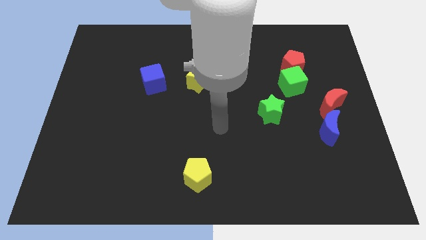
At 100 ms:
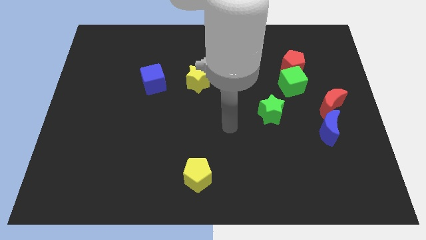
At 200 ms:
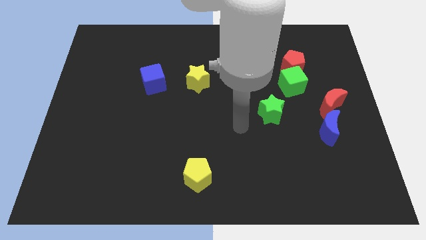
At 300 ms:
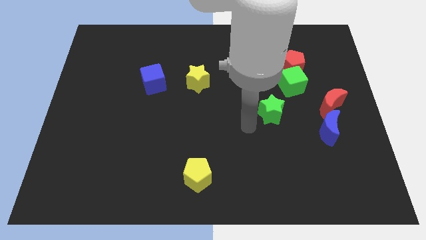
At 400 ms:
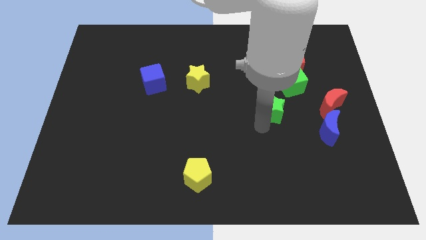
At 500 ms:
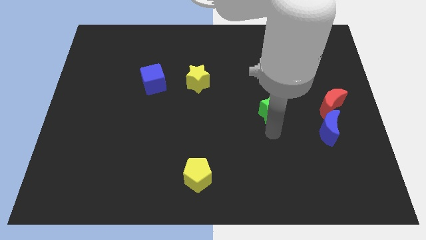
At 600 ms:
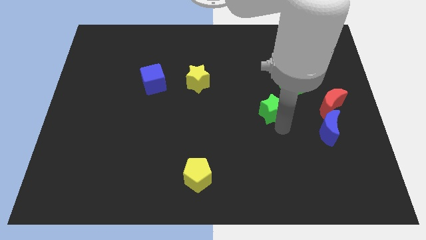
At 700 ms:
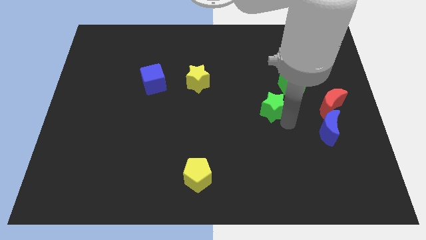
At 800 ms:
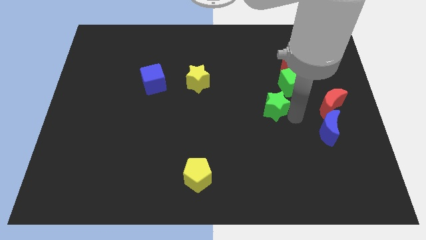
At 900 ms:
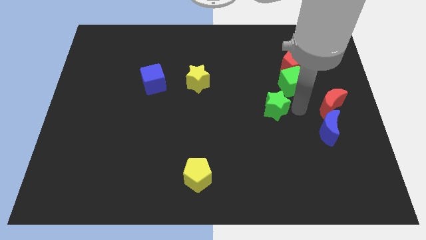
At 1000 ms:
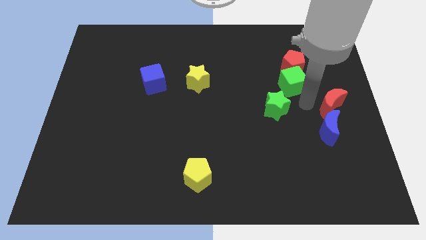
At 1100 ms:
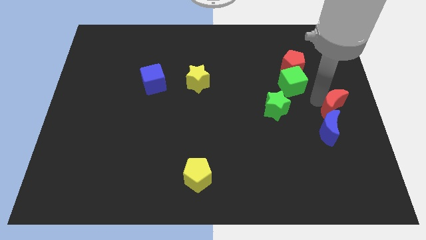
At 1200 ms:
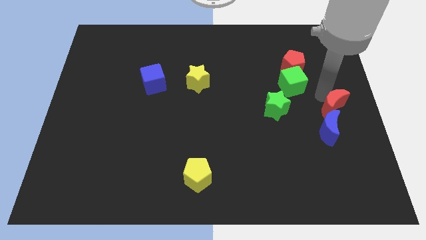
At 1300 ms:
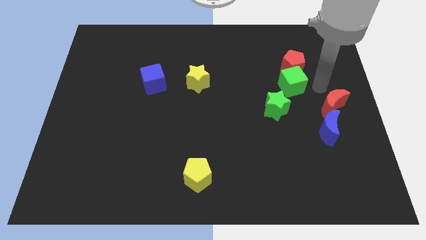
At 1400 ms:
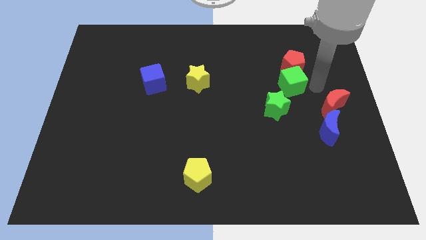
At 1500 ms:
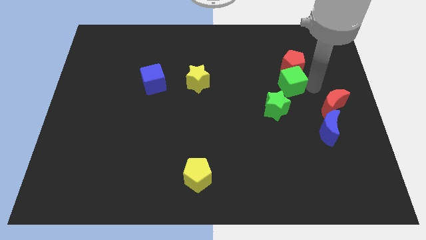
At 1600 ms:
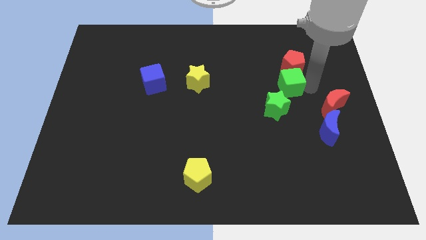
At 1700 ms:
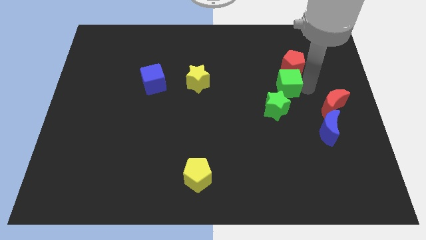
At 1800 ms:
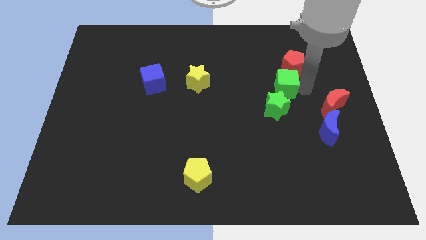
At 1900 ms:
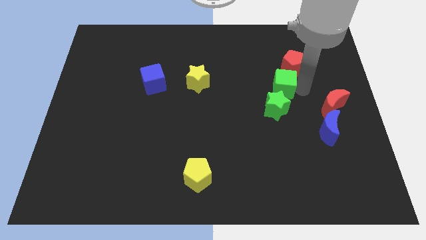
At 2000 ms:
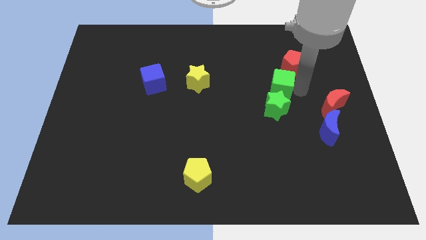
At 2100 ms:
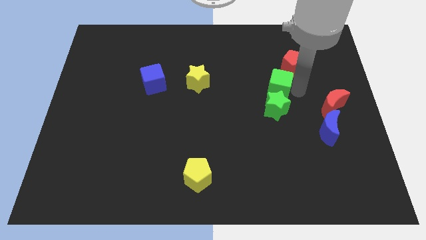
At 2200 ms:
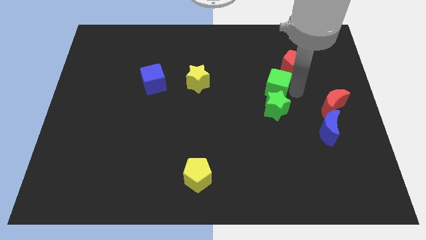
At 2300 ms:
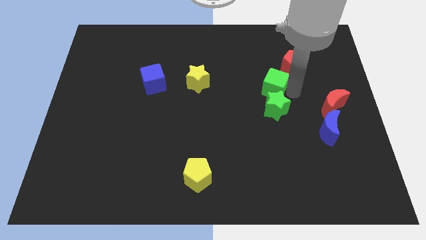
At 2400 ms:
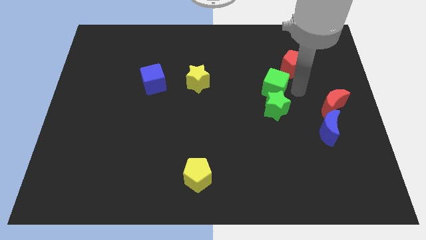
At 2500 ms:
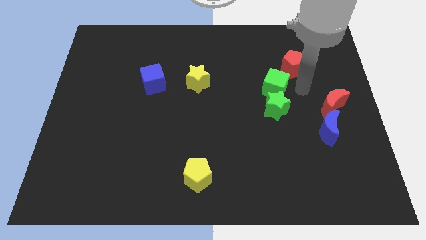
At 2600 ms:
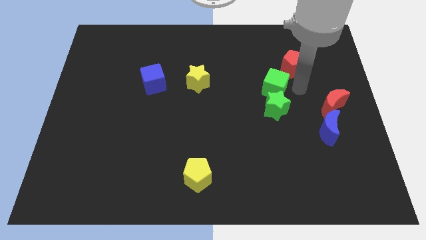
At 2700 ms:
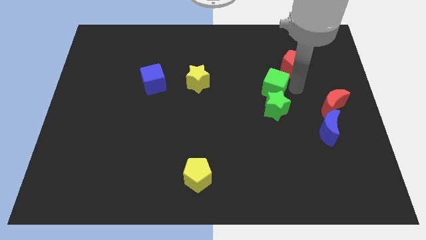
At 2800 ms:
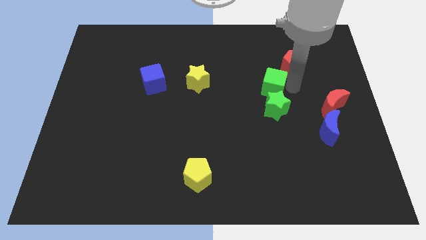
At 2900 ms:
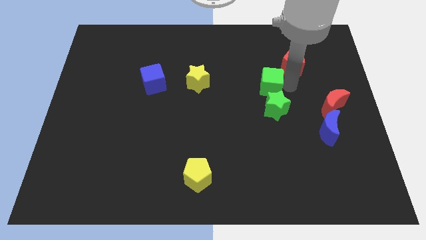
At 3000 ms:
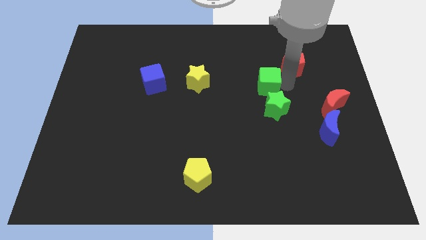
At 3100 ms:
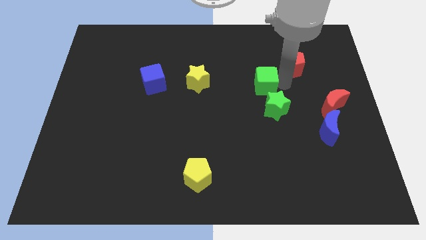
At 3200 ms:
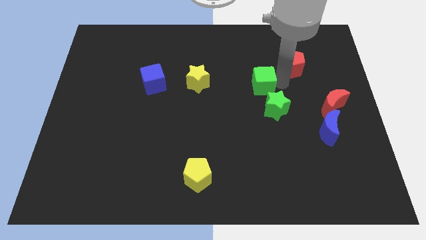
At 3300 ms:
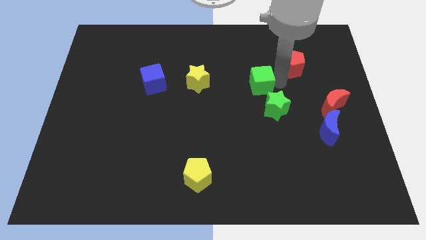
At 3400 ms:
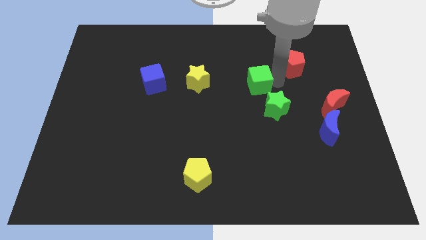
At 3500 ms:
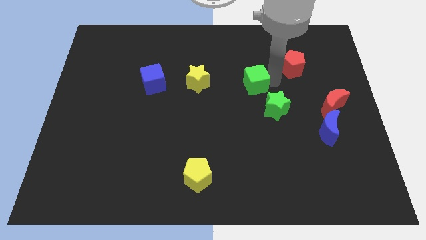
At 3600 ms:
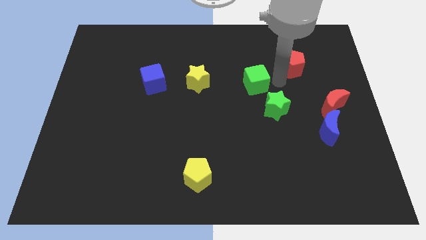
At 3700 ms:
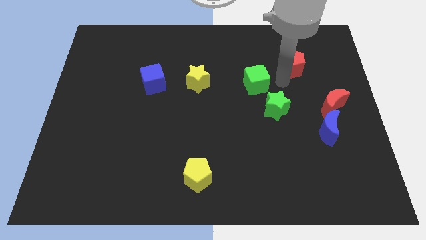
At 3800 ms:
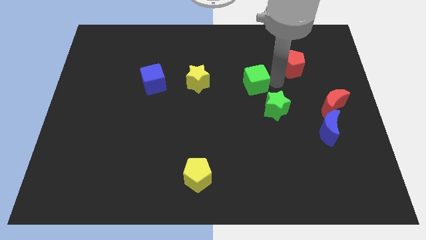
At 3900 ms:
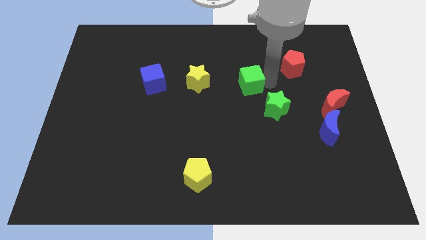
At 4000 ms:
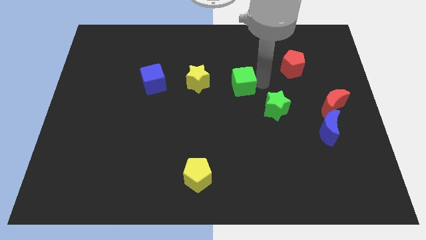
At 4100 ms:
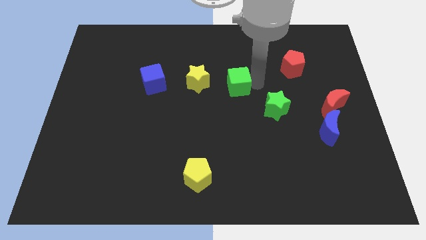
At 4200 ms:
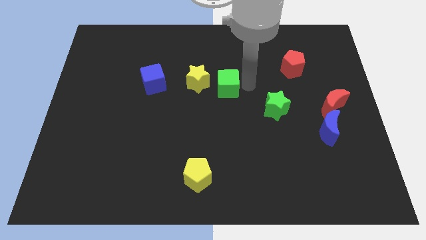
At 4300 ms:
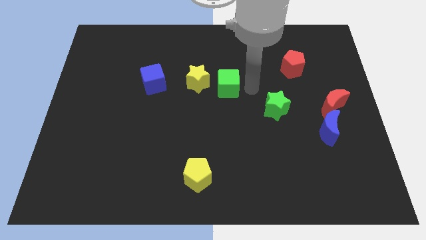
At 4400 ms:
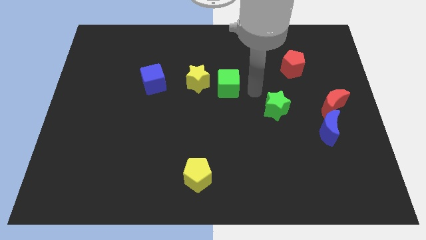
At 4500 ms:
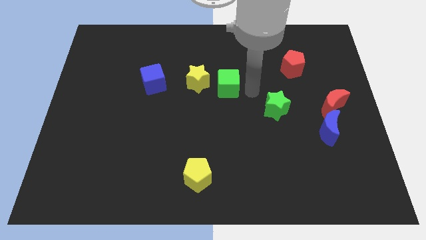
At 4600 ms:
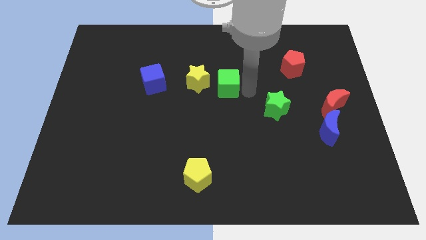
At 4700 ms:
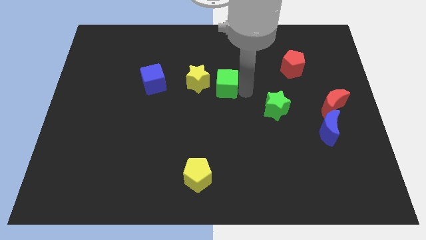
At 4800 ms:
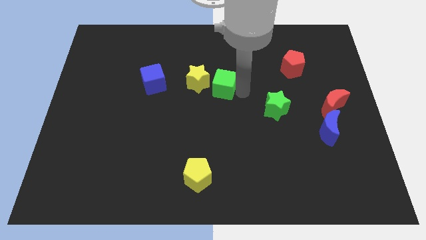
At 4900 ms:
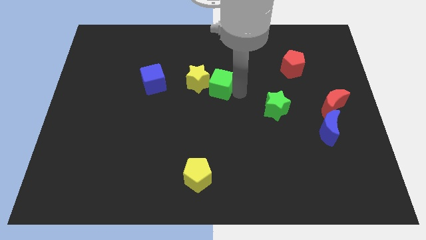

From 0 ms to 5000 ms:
push the green cube towards the yellow star

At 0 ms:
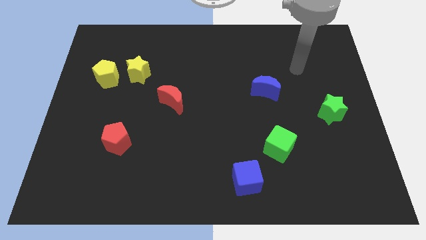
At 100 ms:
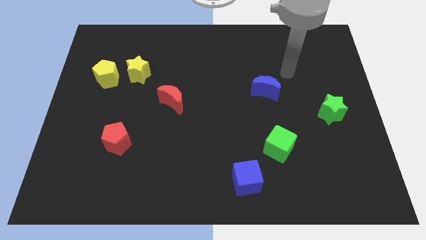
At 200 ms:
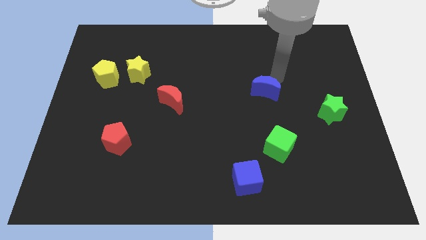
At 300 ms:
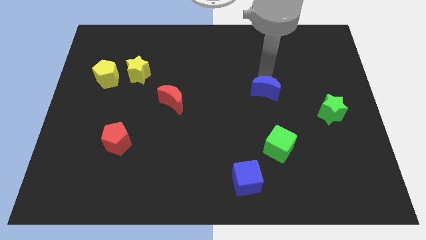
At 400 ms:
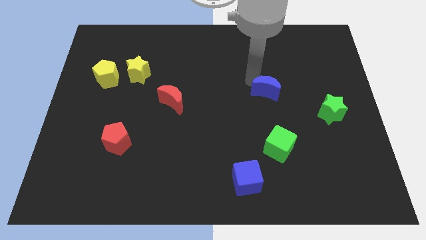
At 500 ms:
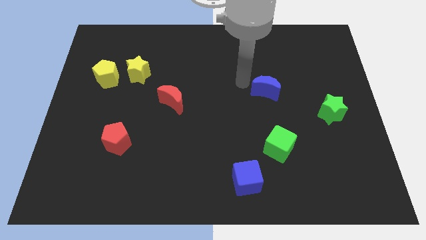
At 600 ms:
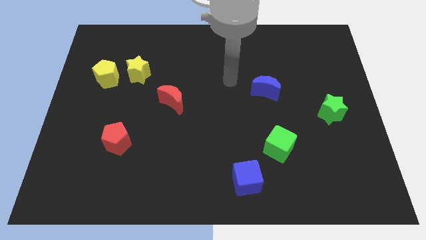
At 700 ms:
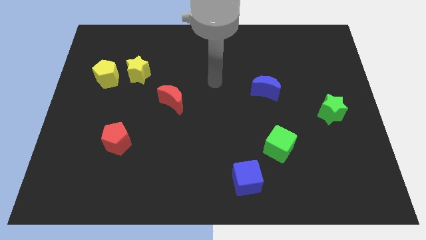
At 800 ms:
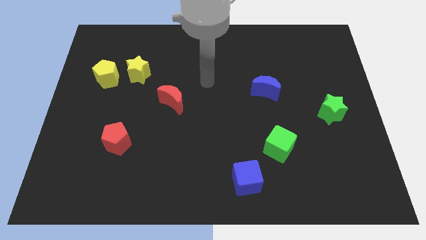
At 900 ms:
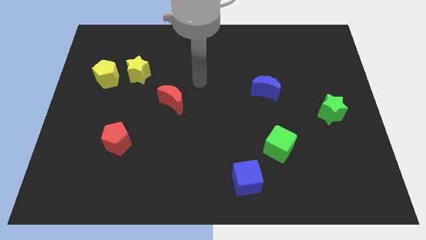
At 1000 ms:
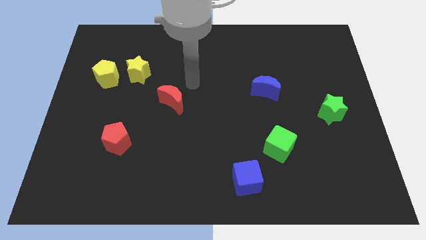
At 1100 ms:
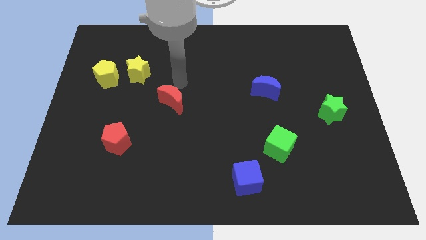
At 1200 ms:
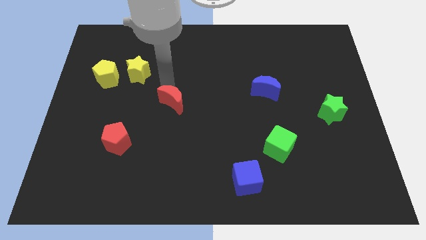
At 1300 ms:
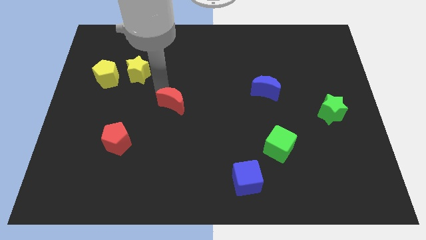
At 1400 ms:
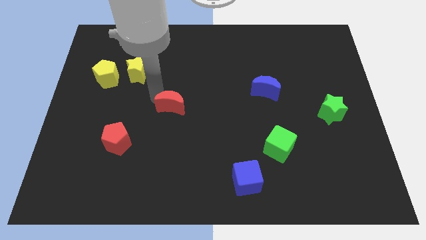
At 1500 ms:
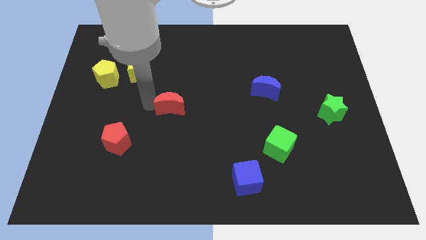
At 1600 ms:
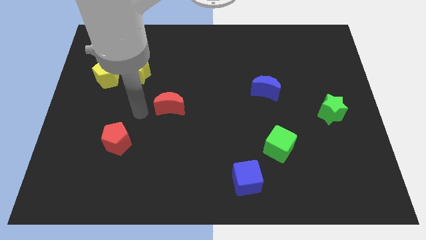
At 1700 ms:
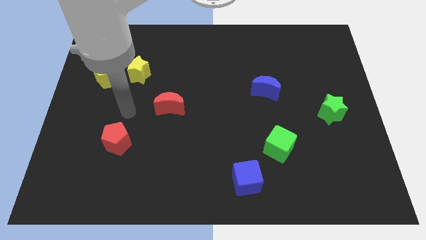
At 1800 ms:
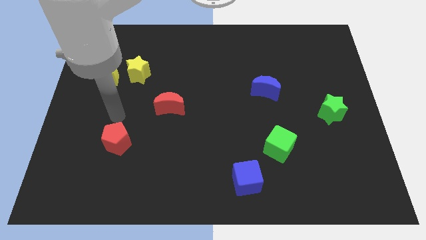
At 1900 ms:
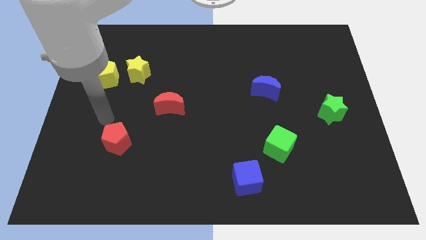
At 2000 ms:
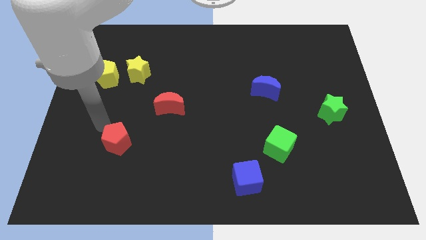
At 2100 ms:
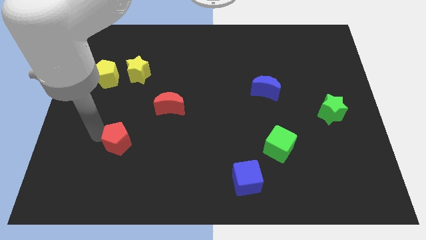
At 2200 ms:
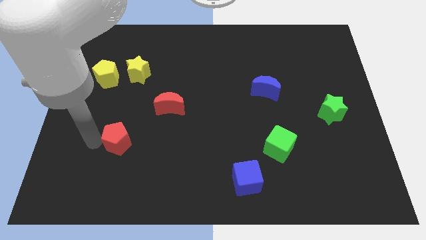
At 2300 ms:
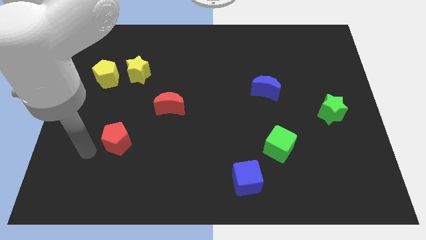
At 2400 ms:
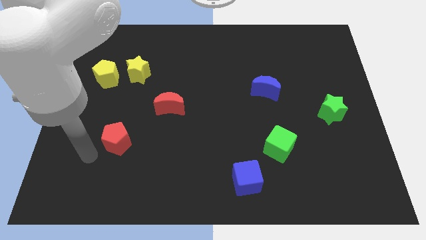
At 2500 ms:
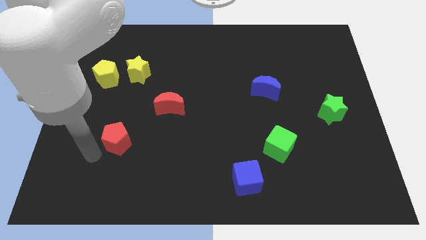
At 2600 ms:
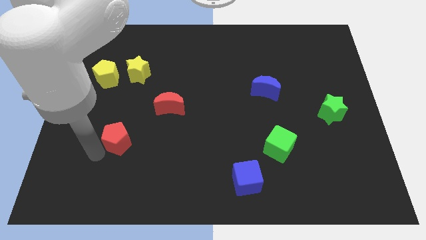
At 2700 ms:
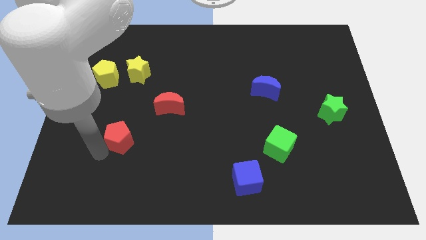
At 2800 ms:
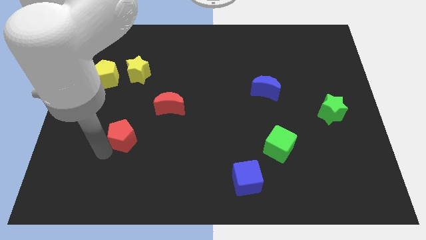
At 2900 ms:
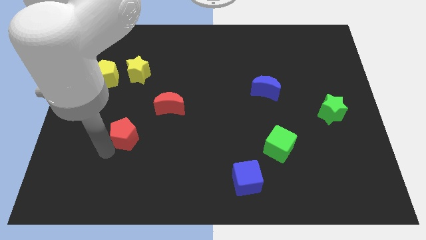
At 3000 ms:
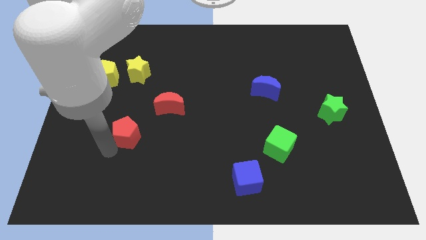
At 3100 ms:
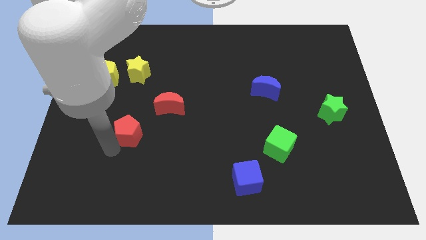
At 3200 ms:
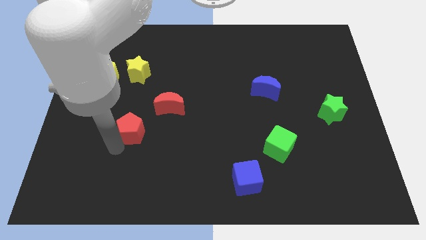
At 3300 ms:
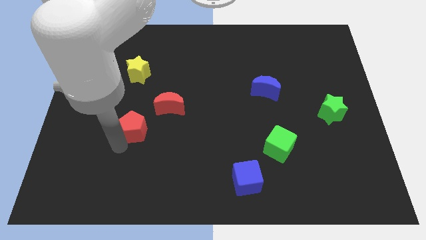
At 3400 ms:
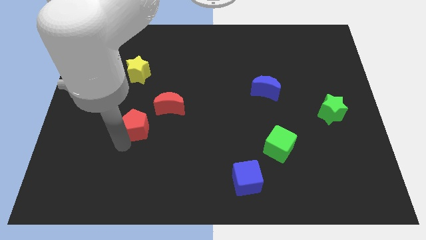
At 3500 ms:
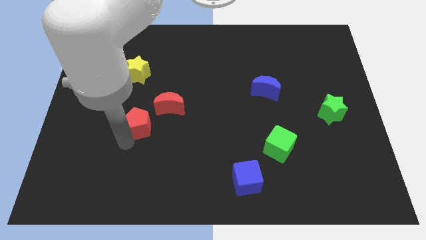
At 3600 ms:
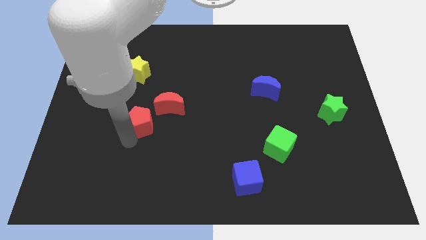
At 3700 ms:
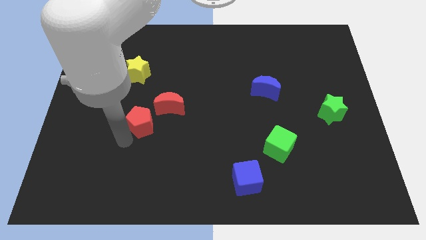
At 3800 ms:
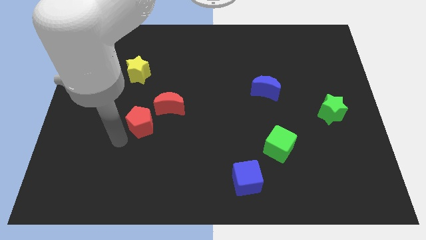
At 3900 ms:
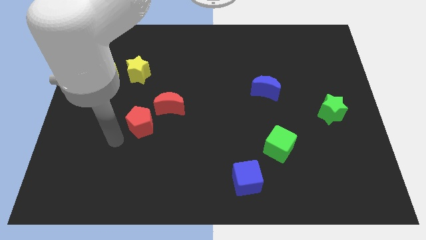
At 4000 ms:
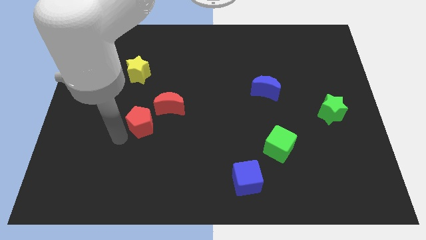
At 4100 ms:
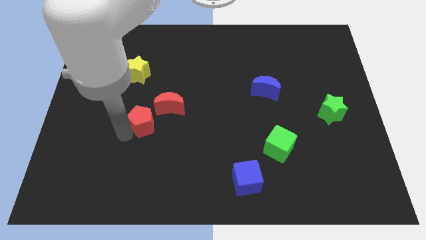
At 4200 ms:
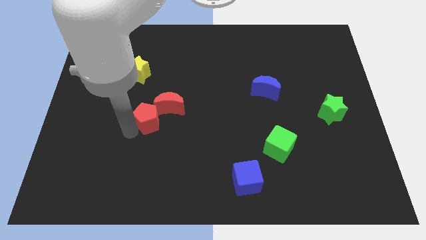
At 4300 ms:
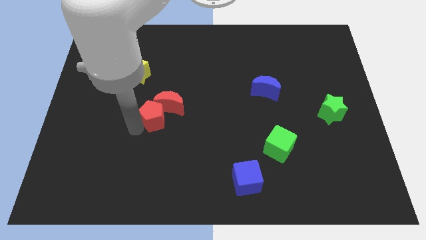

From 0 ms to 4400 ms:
slide the red pentagon to the red moon
